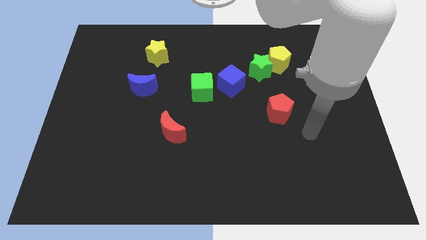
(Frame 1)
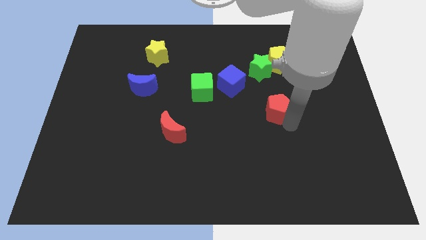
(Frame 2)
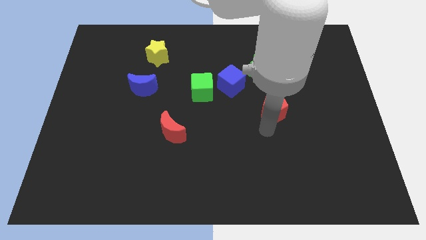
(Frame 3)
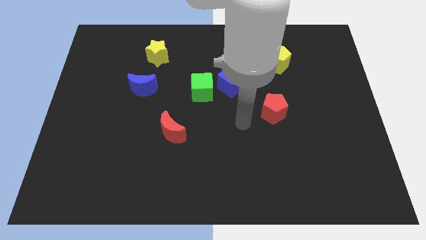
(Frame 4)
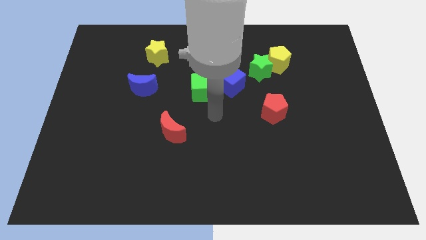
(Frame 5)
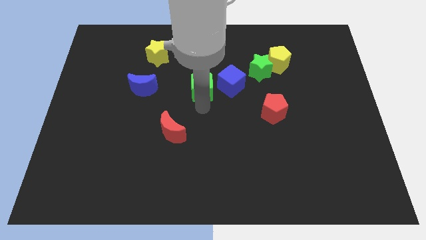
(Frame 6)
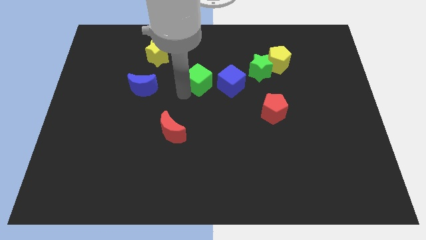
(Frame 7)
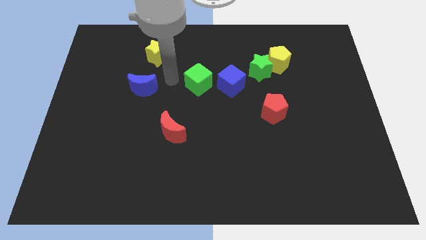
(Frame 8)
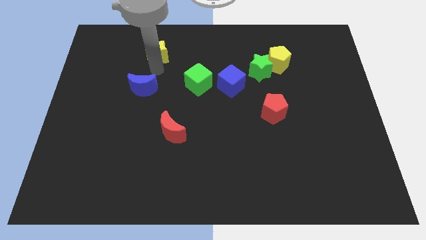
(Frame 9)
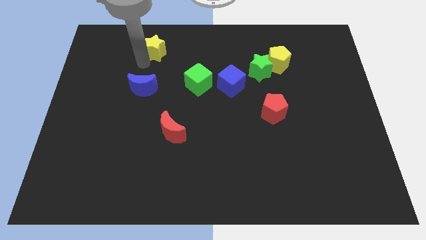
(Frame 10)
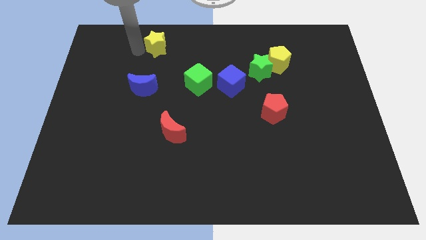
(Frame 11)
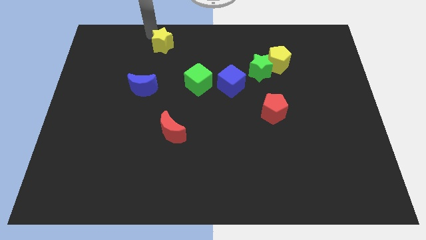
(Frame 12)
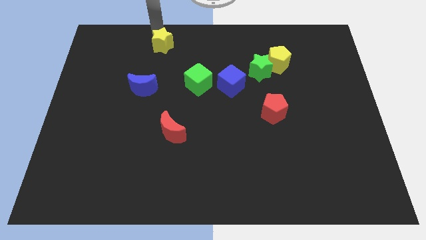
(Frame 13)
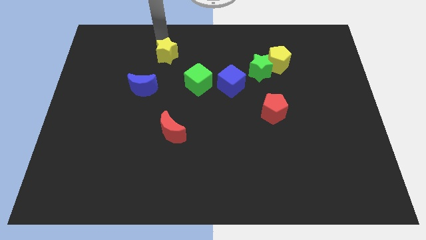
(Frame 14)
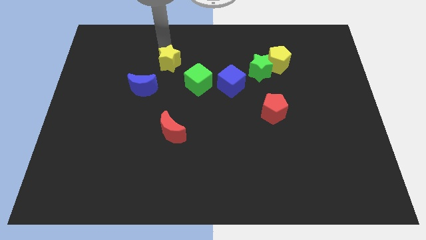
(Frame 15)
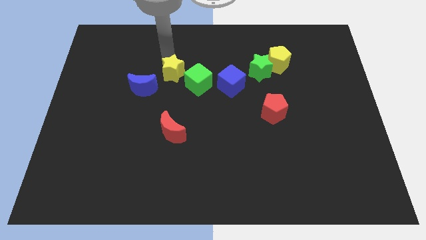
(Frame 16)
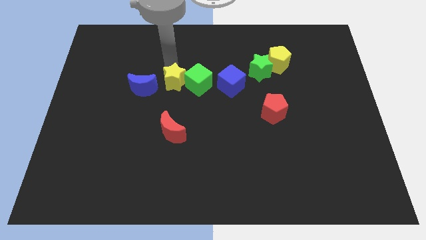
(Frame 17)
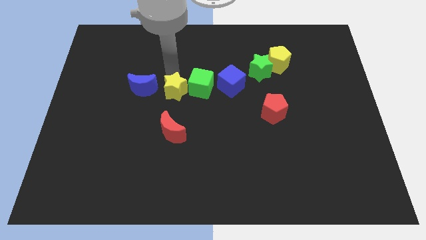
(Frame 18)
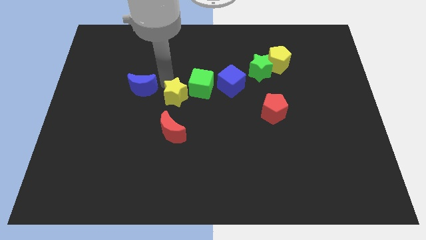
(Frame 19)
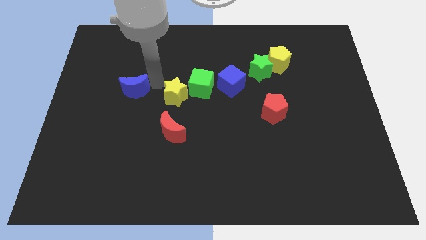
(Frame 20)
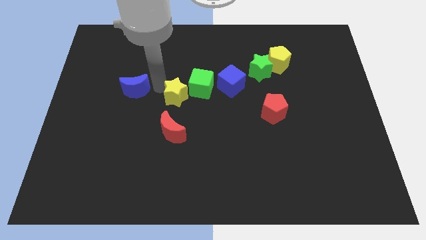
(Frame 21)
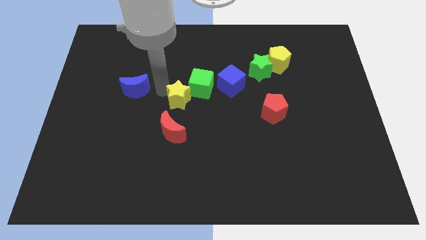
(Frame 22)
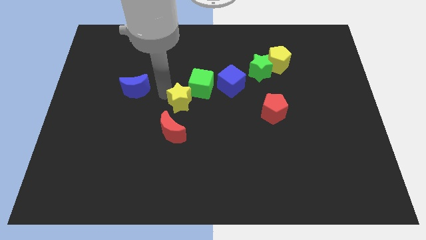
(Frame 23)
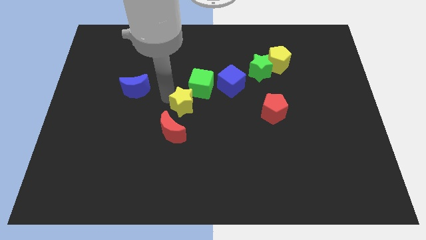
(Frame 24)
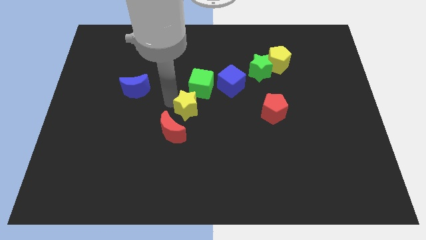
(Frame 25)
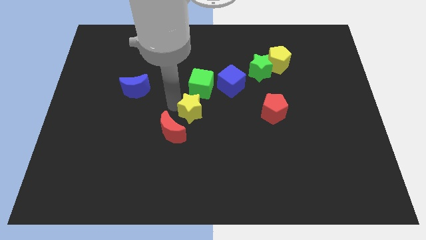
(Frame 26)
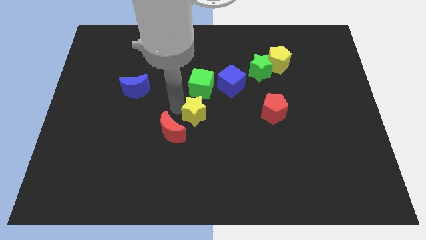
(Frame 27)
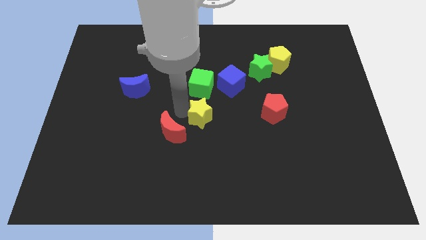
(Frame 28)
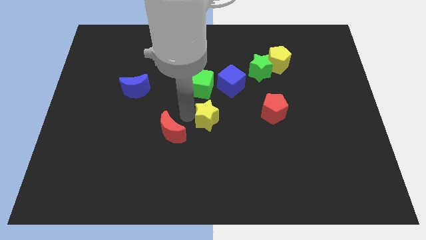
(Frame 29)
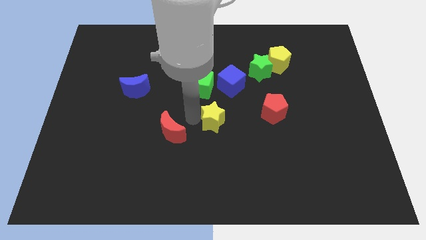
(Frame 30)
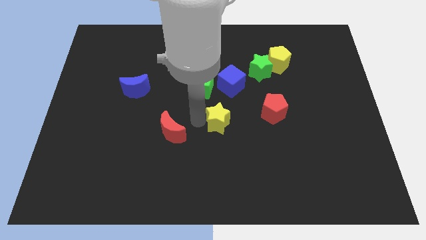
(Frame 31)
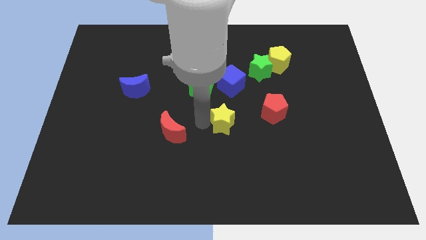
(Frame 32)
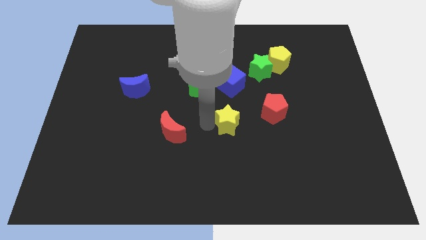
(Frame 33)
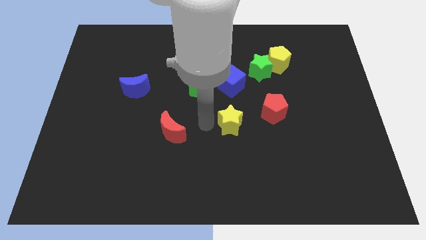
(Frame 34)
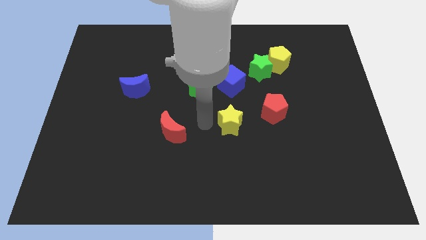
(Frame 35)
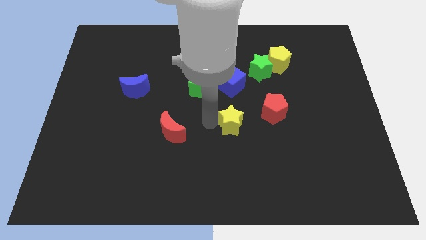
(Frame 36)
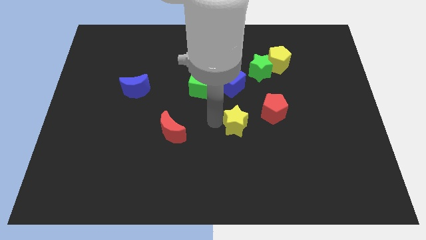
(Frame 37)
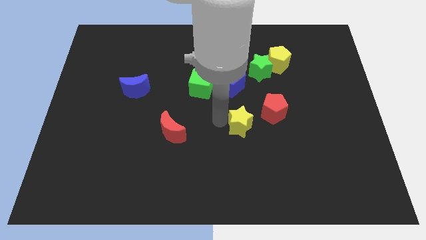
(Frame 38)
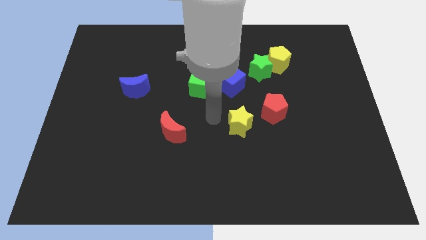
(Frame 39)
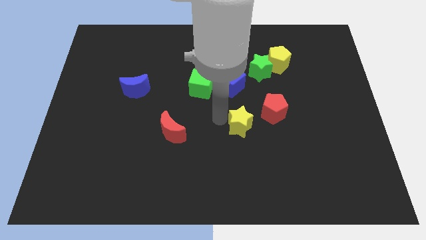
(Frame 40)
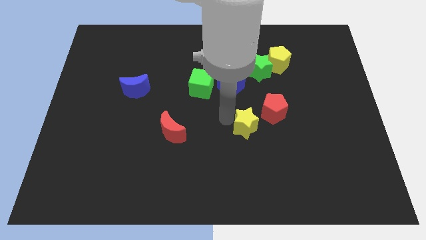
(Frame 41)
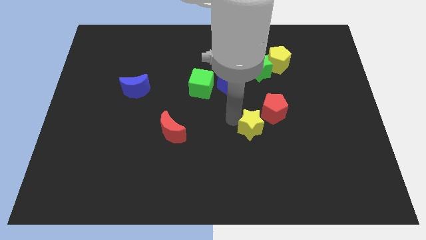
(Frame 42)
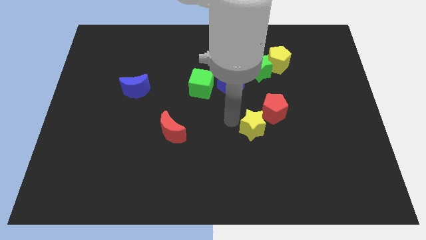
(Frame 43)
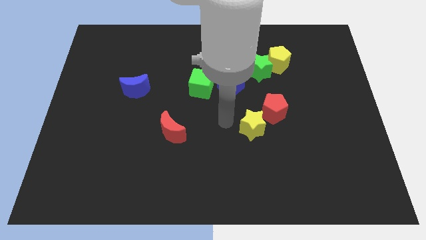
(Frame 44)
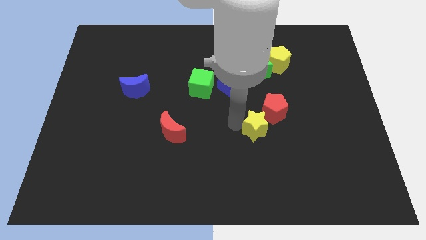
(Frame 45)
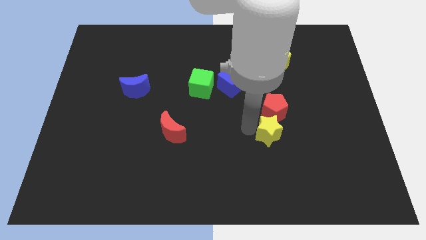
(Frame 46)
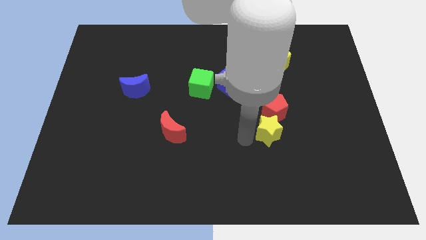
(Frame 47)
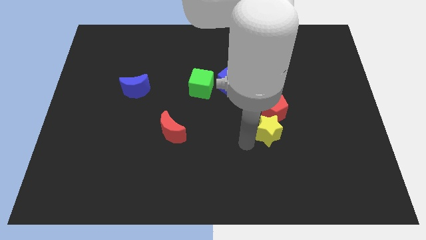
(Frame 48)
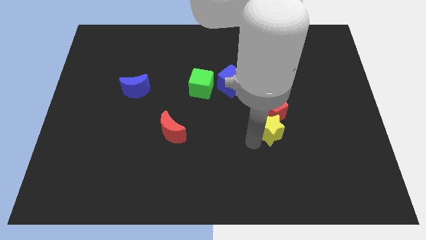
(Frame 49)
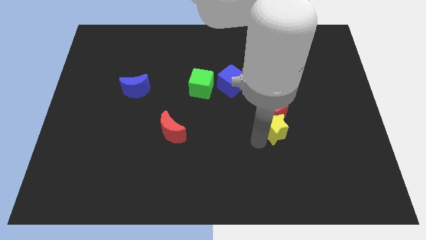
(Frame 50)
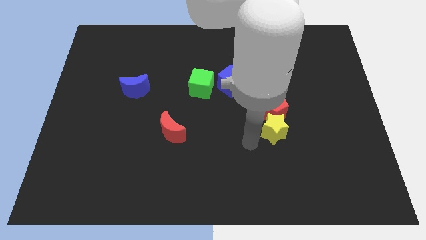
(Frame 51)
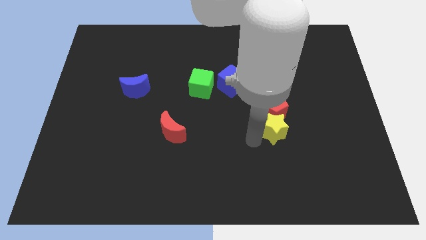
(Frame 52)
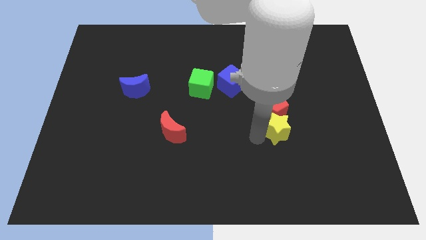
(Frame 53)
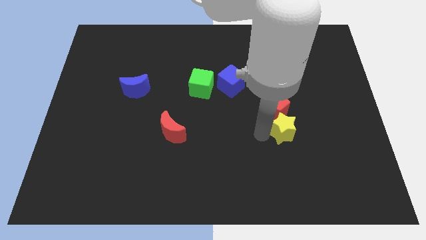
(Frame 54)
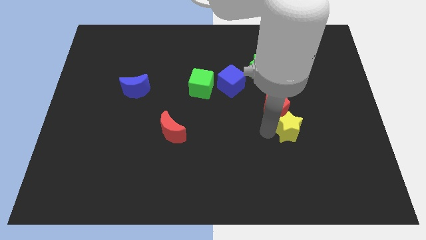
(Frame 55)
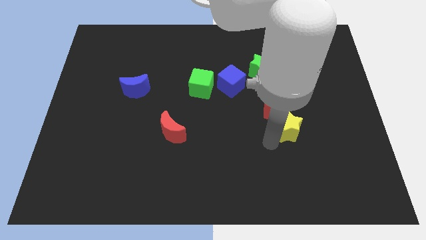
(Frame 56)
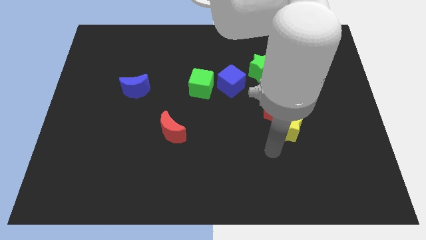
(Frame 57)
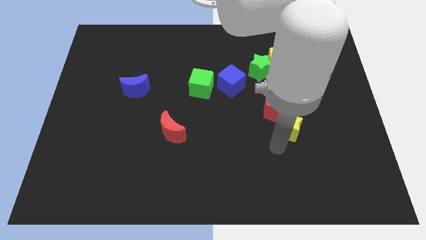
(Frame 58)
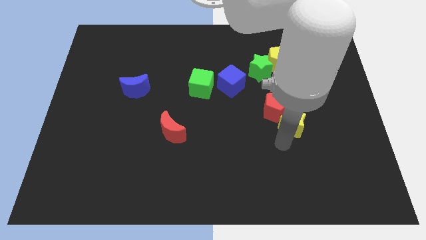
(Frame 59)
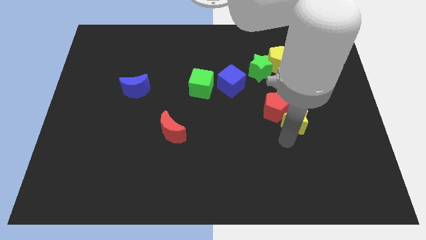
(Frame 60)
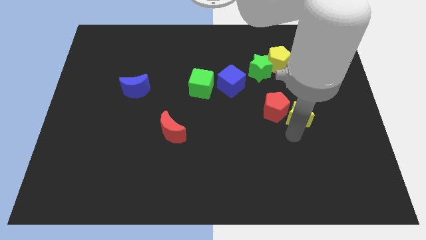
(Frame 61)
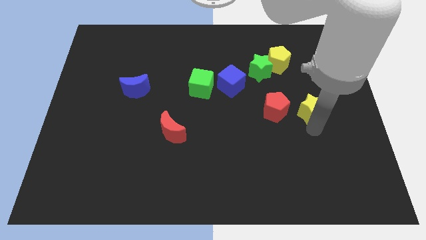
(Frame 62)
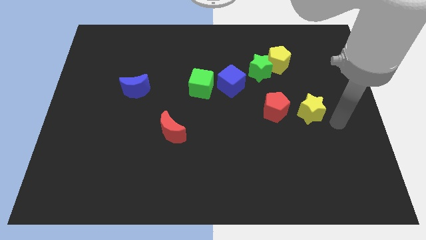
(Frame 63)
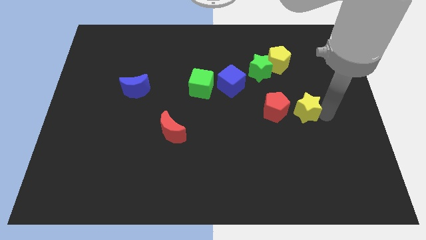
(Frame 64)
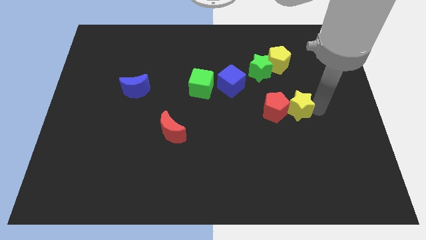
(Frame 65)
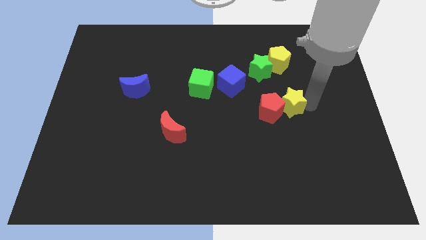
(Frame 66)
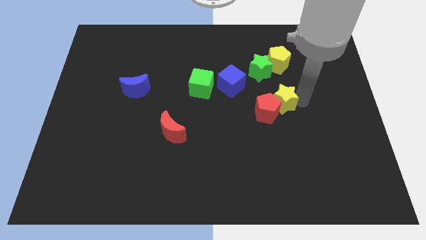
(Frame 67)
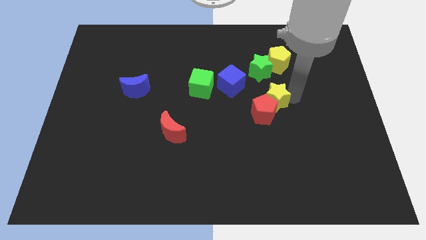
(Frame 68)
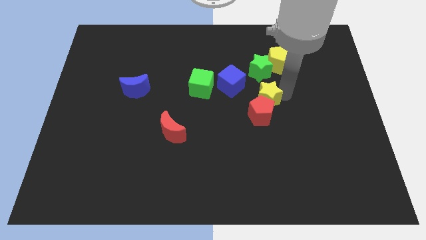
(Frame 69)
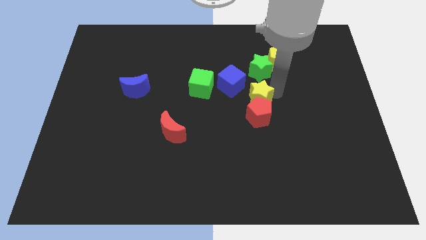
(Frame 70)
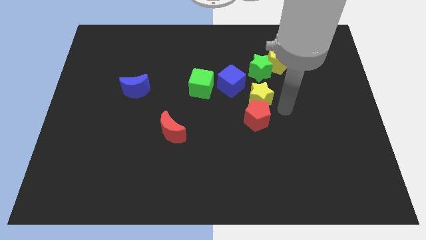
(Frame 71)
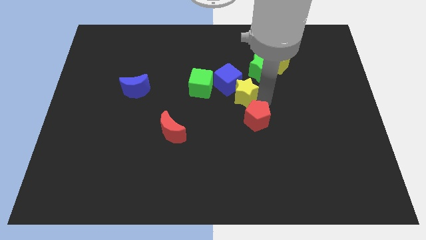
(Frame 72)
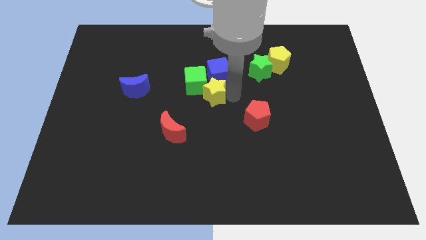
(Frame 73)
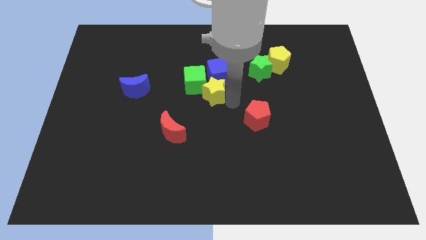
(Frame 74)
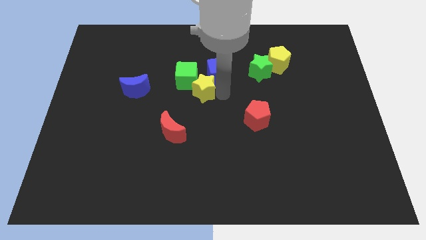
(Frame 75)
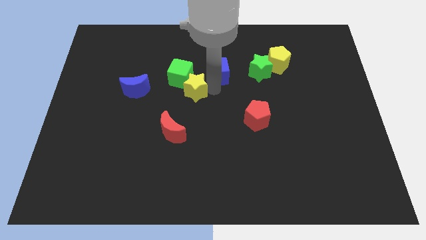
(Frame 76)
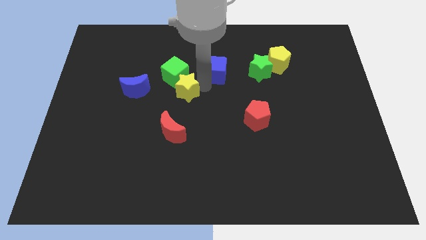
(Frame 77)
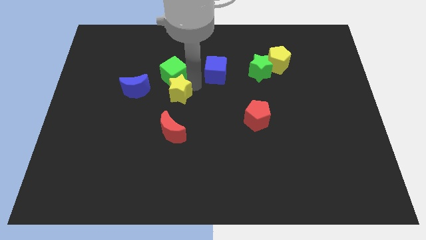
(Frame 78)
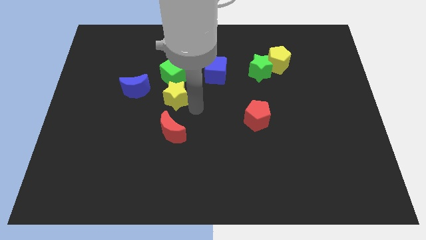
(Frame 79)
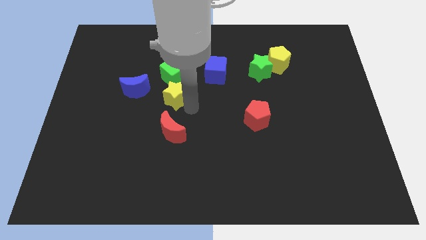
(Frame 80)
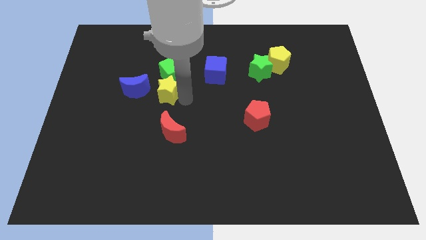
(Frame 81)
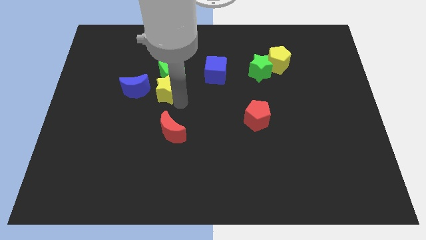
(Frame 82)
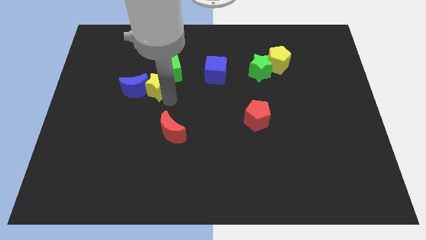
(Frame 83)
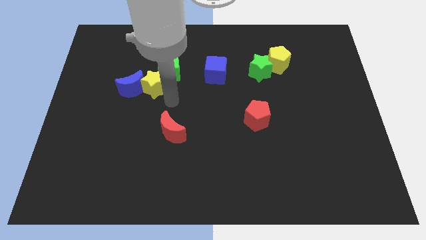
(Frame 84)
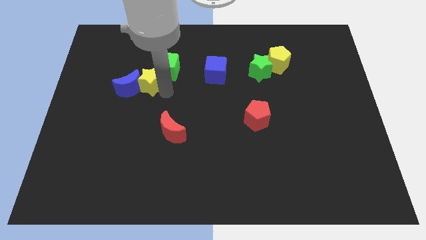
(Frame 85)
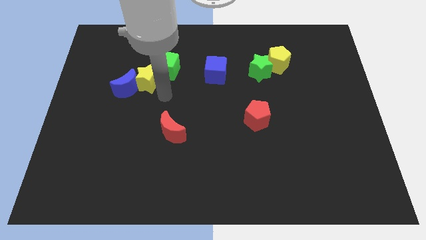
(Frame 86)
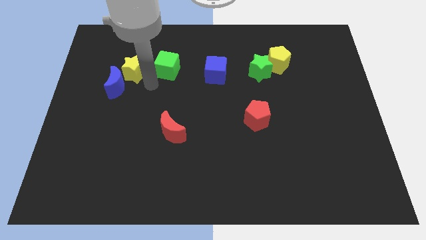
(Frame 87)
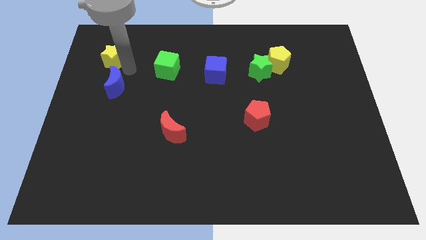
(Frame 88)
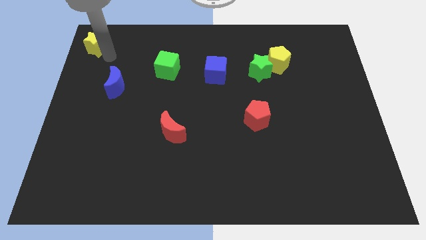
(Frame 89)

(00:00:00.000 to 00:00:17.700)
move the yellow star to the top left
